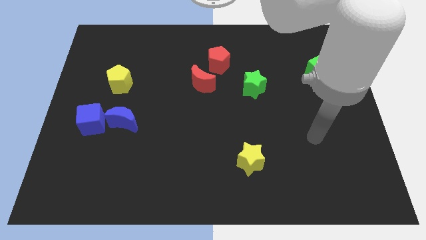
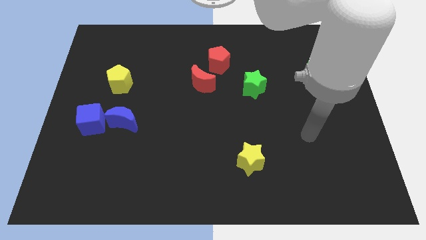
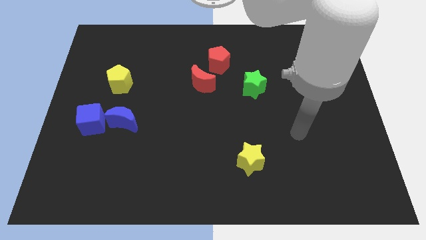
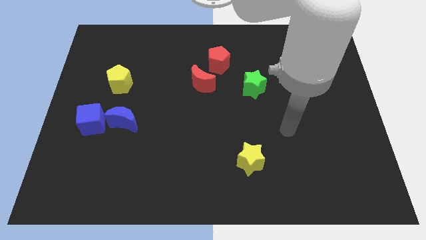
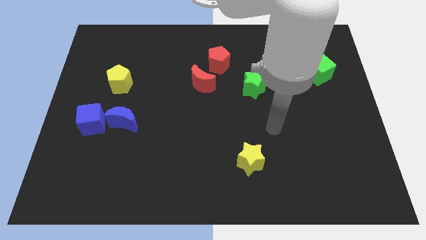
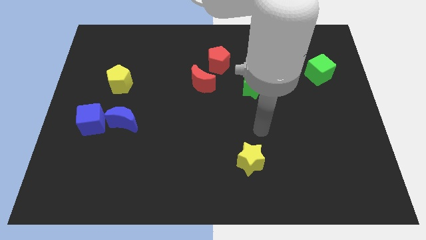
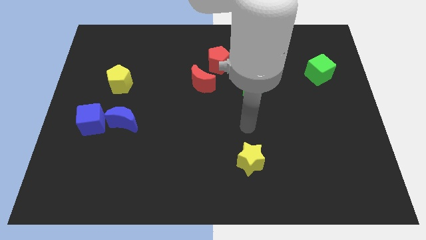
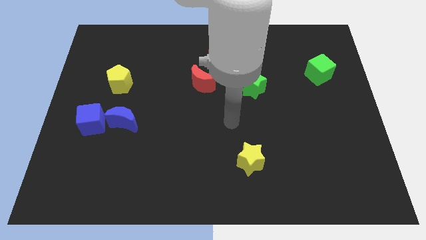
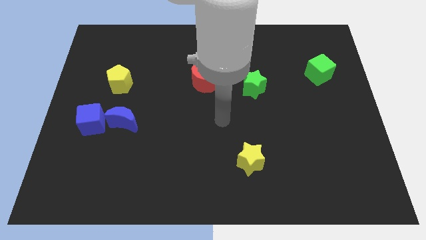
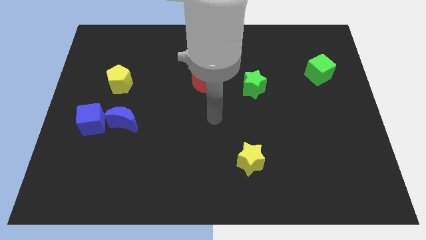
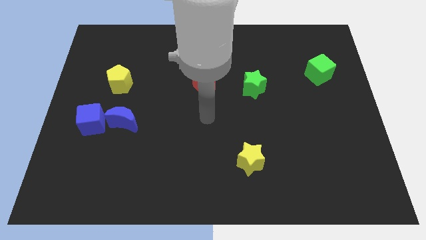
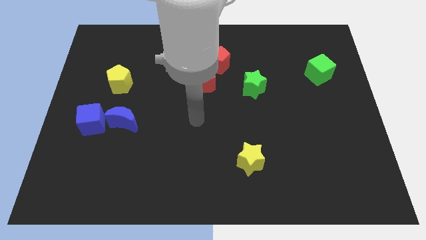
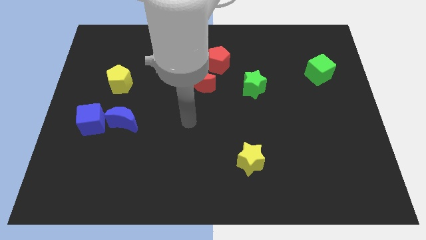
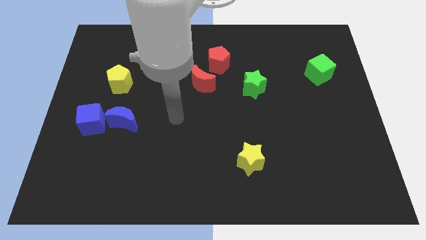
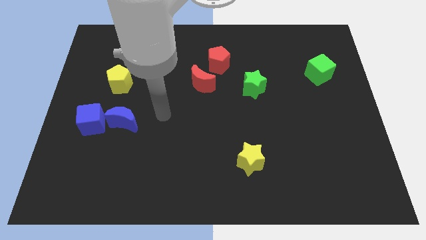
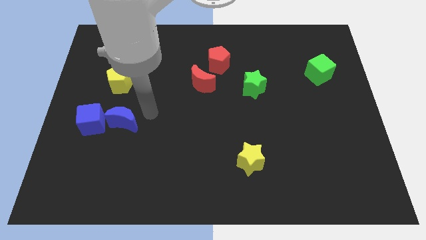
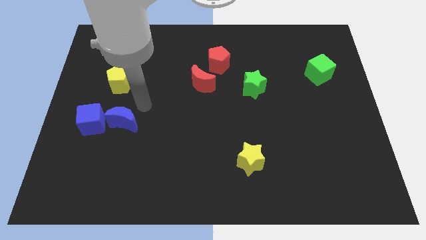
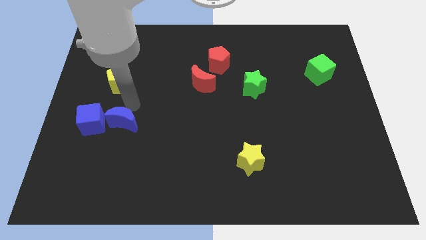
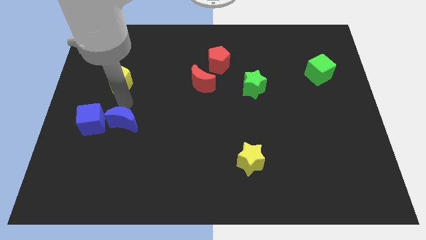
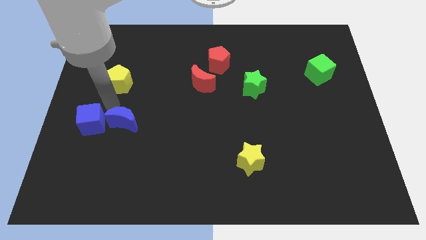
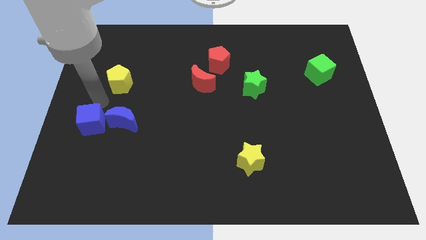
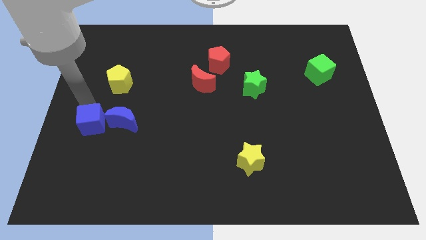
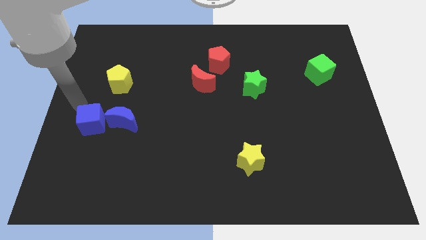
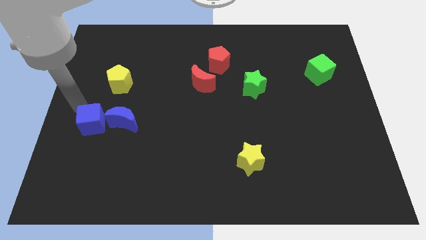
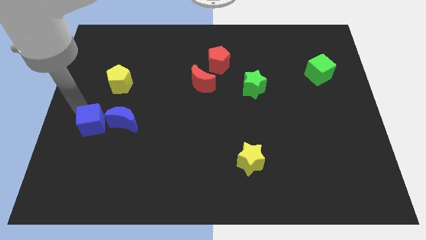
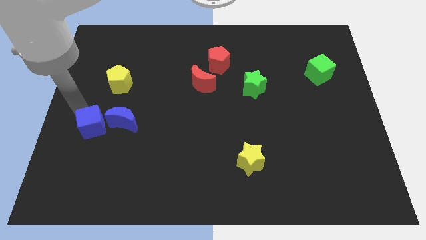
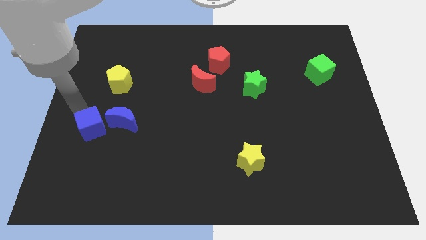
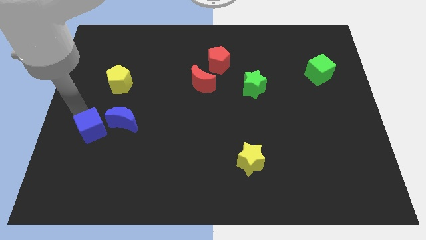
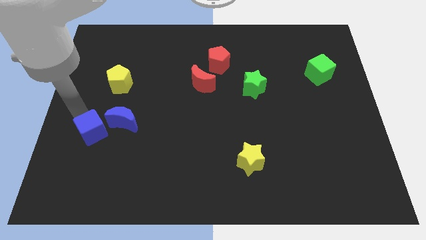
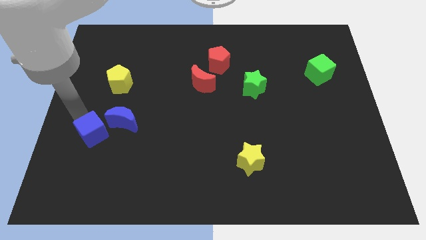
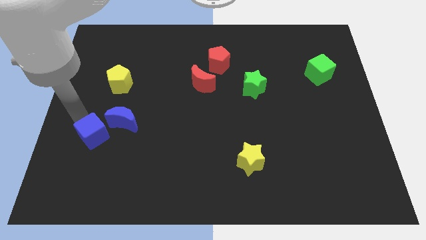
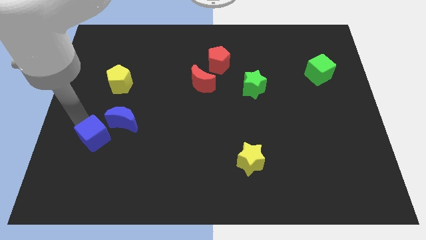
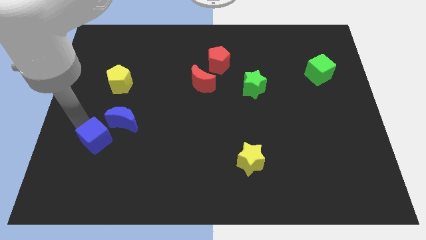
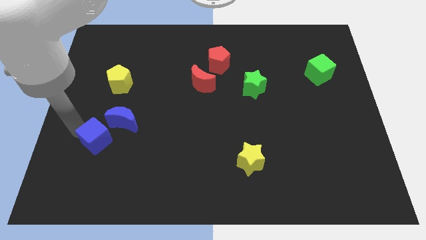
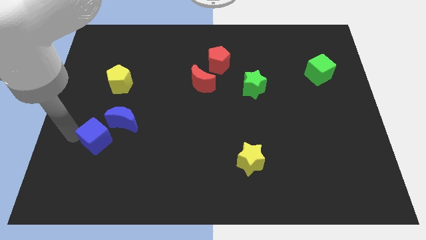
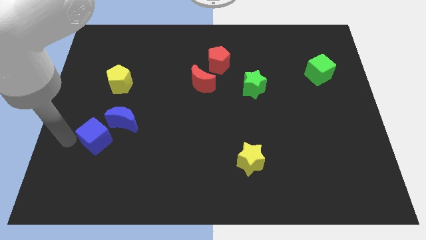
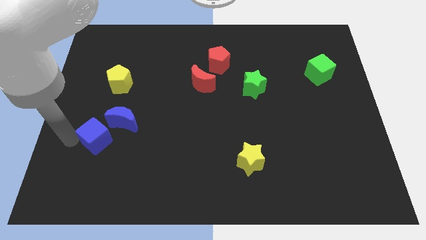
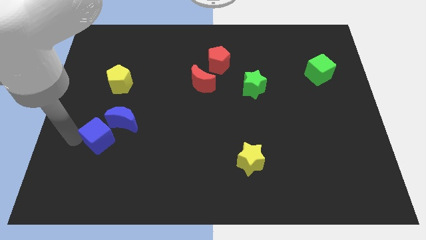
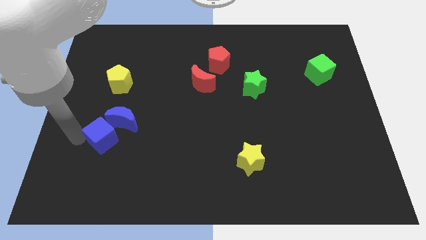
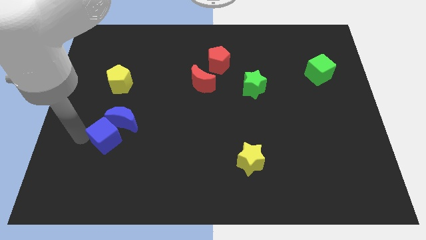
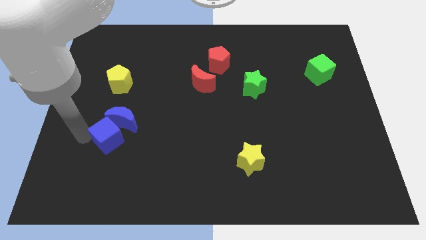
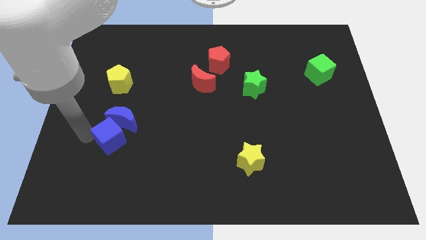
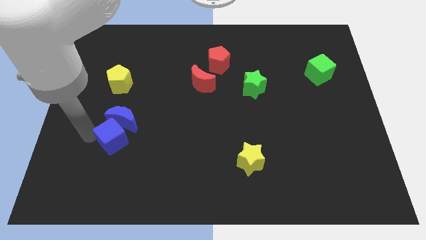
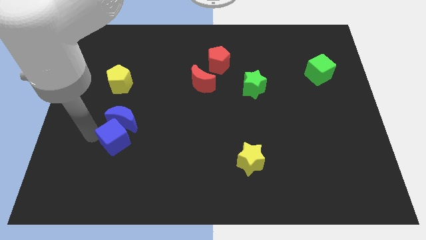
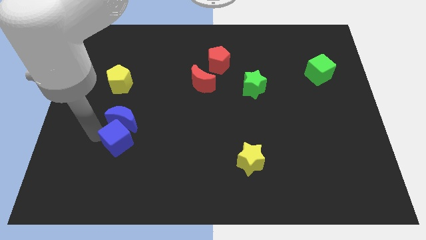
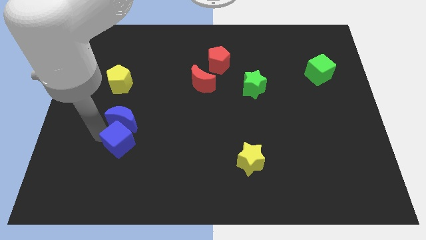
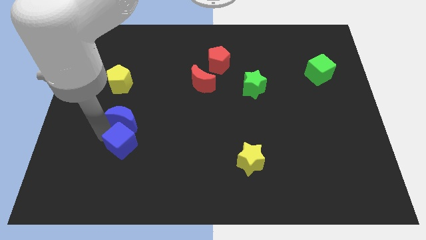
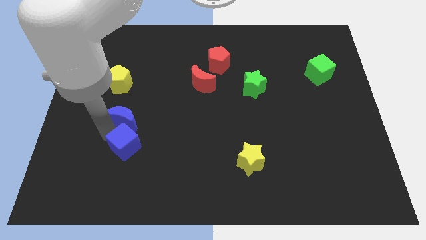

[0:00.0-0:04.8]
push the blue cube somewhat right

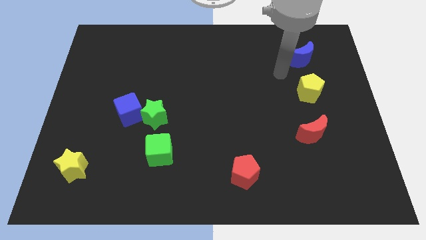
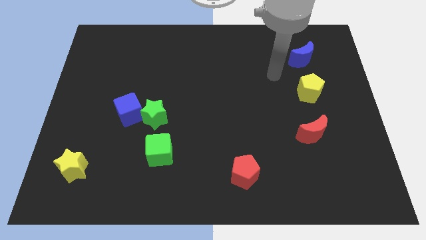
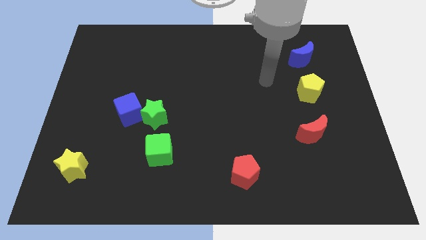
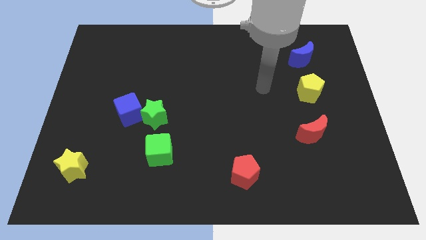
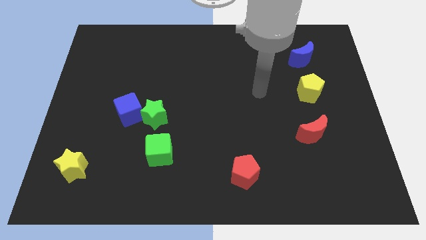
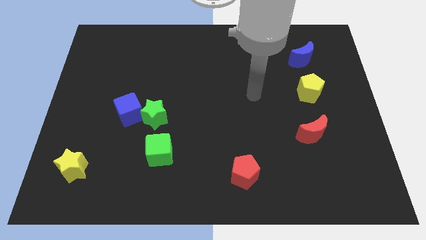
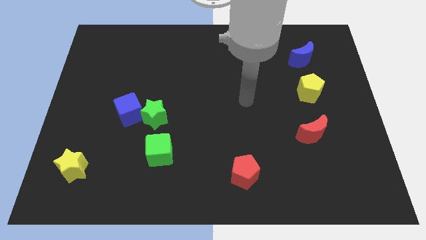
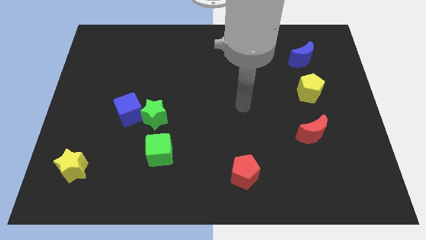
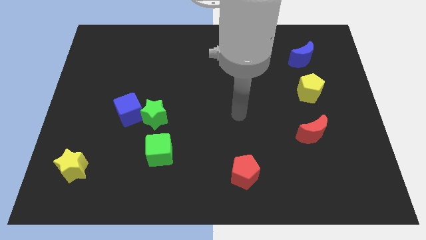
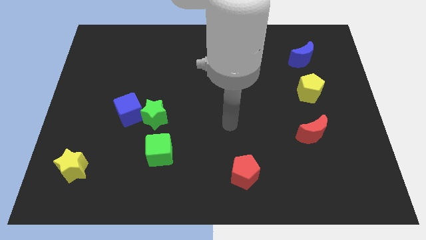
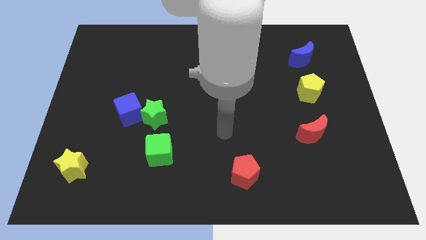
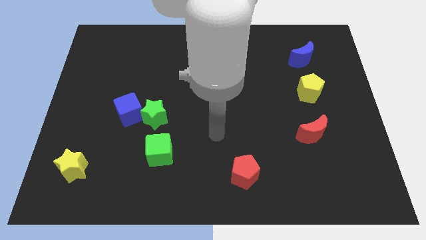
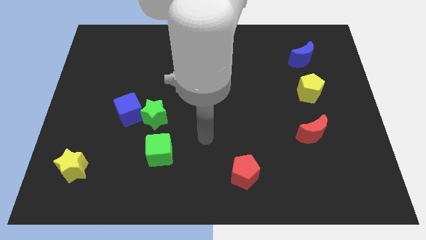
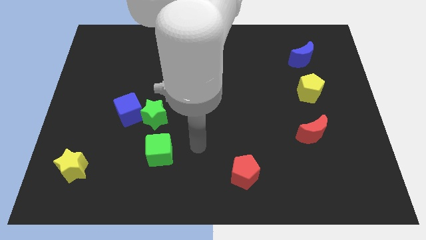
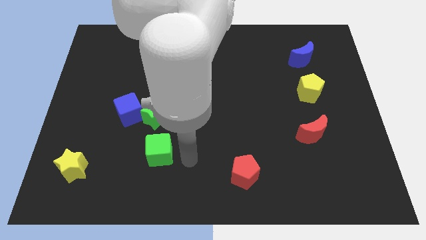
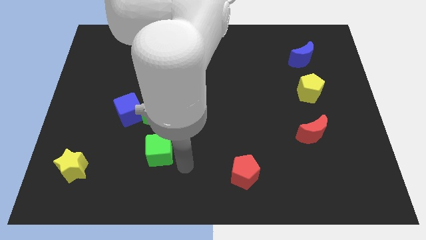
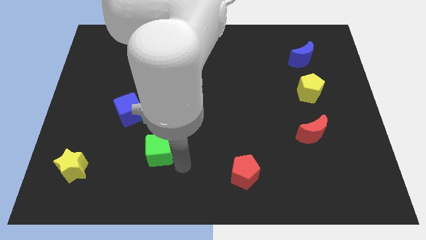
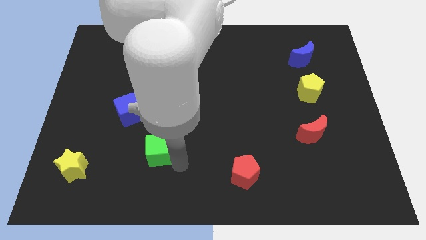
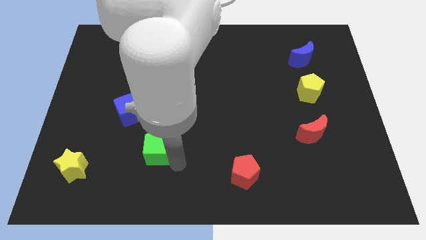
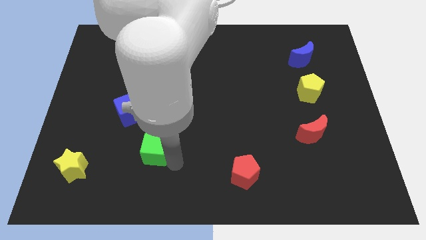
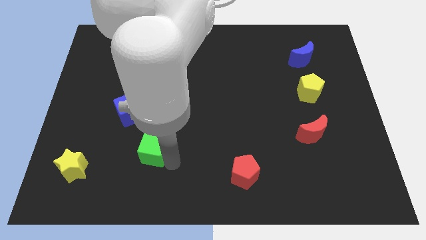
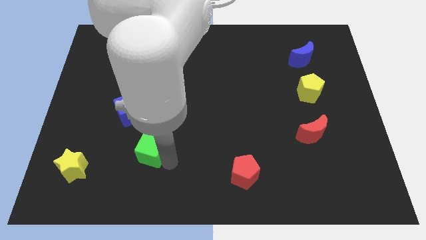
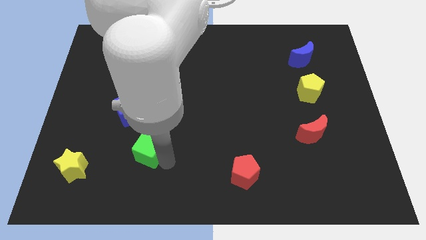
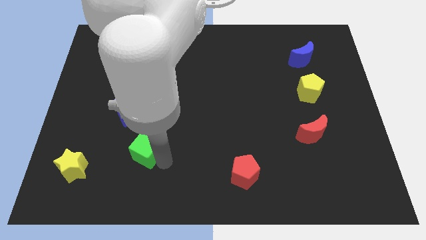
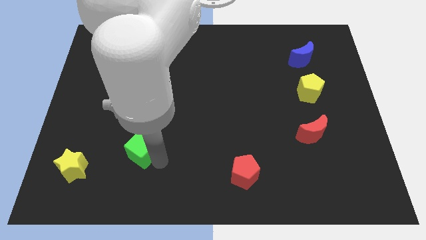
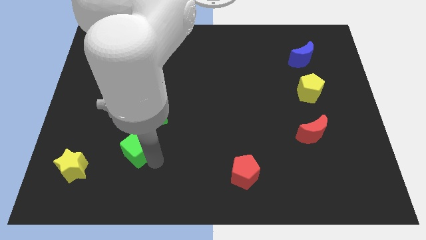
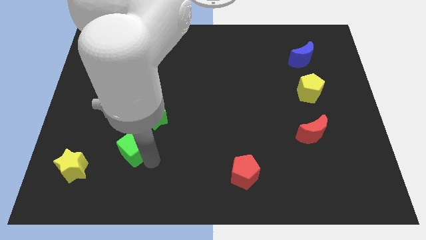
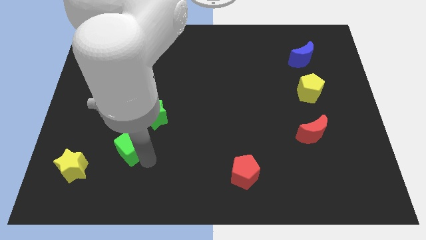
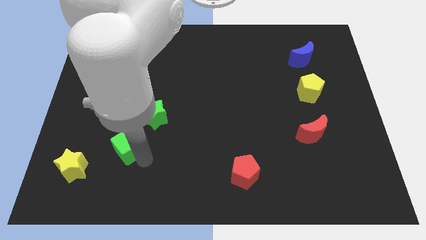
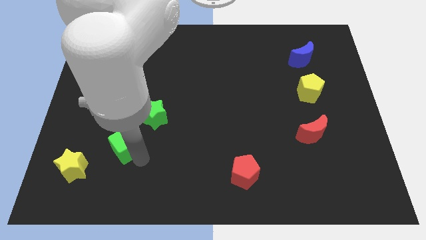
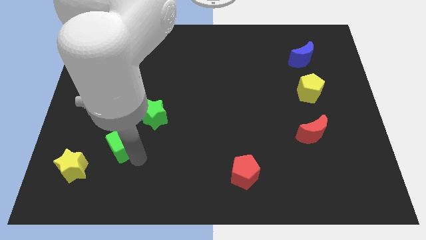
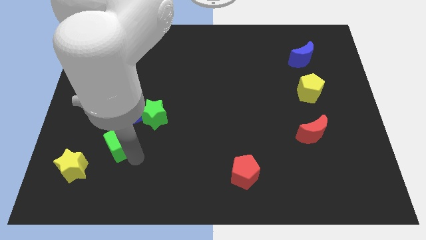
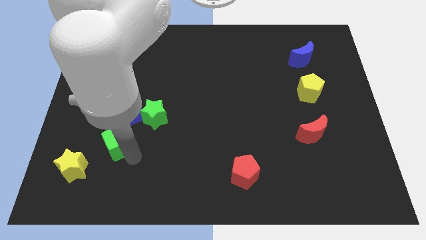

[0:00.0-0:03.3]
slightly slide the green cube diagonally up and left
